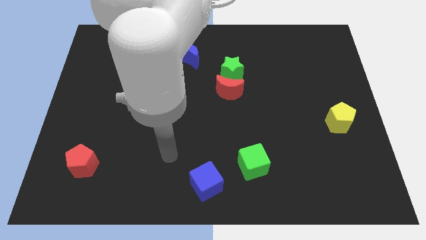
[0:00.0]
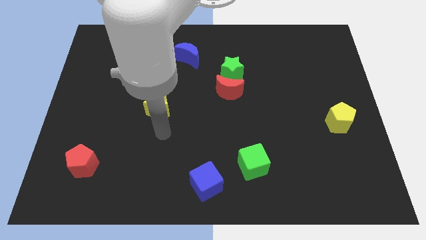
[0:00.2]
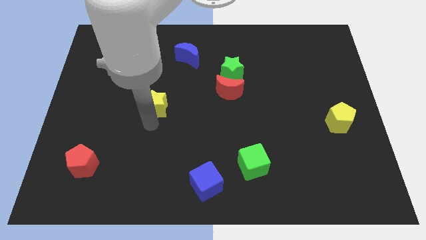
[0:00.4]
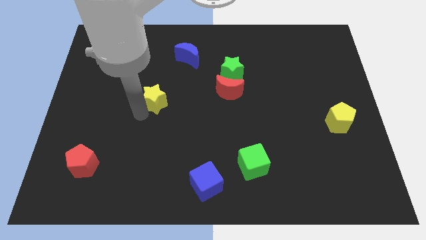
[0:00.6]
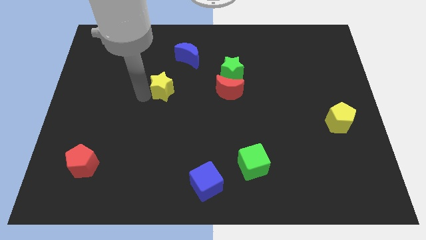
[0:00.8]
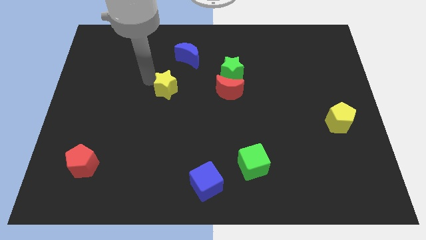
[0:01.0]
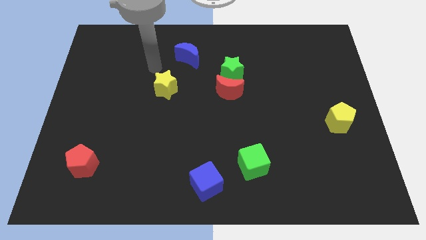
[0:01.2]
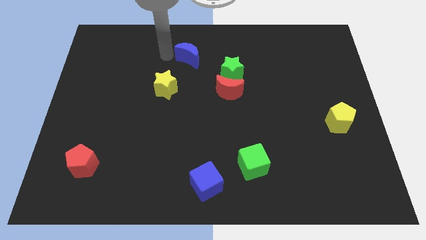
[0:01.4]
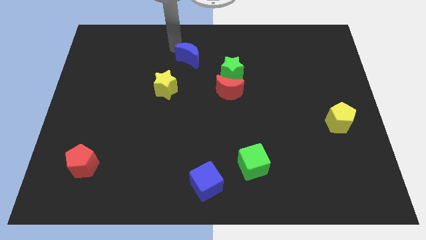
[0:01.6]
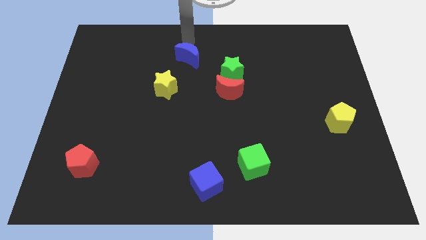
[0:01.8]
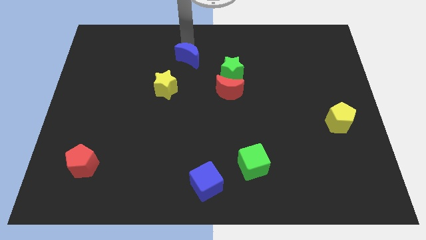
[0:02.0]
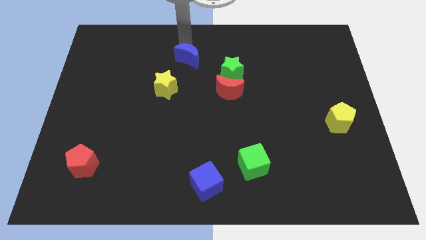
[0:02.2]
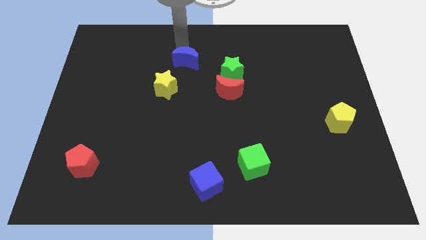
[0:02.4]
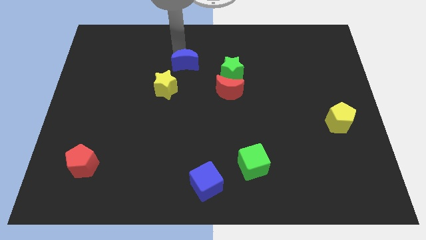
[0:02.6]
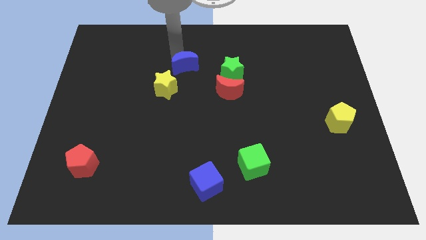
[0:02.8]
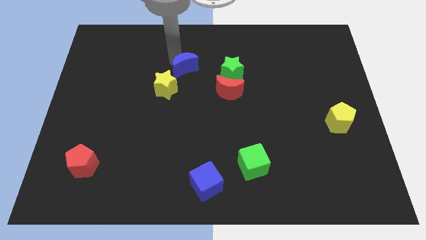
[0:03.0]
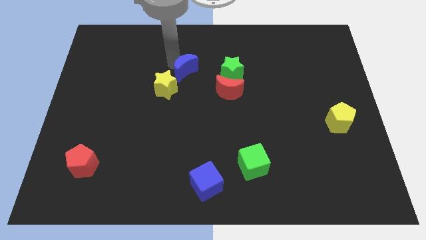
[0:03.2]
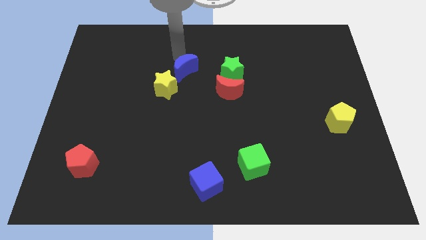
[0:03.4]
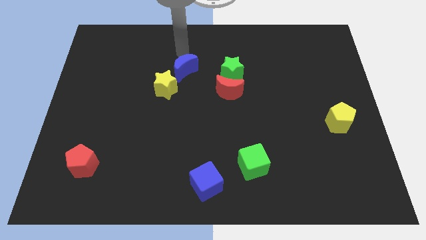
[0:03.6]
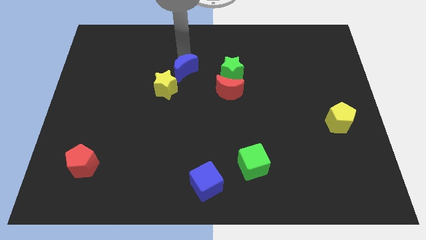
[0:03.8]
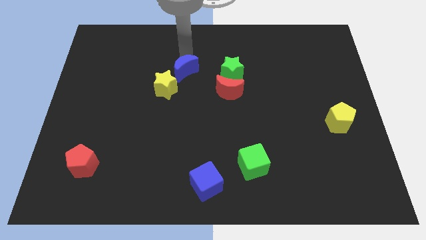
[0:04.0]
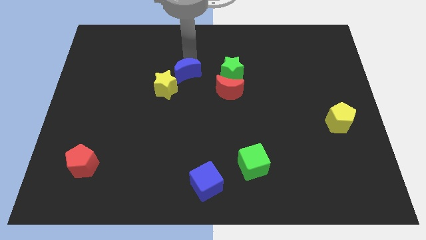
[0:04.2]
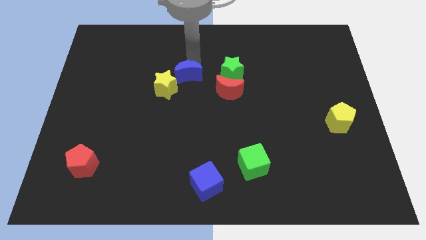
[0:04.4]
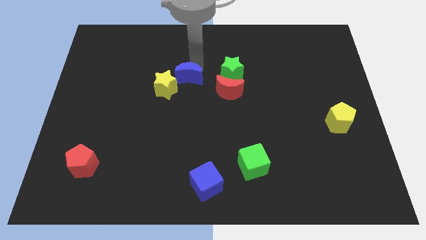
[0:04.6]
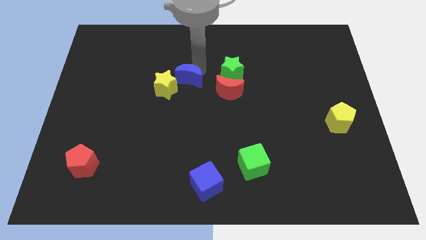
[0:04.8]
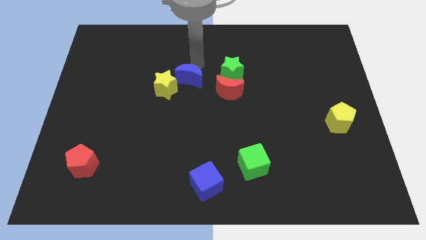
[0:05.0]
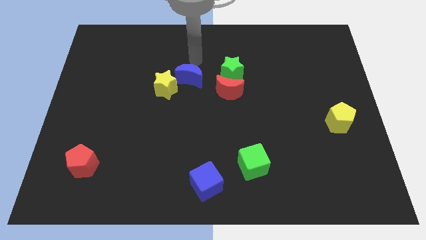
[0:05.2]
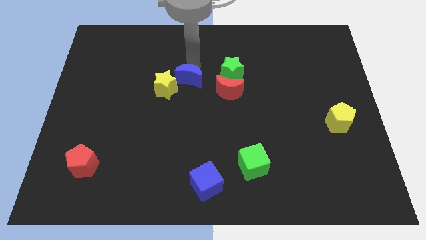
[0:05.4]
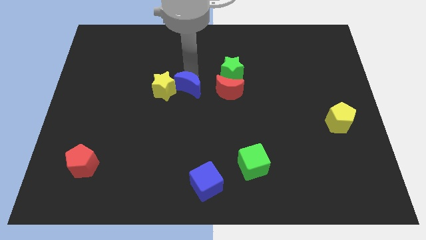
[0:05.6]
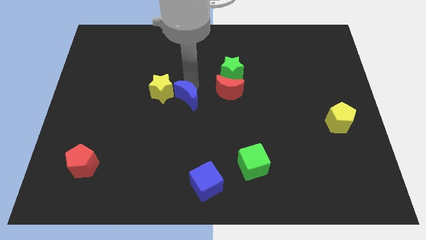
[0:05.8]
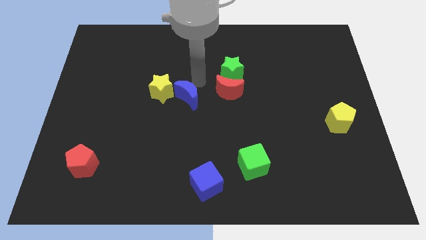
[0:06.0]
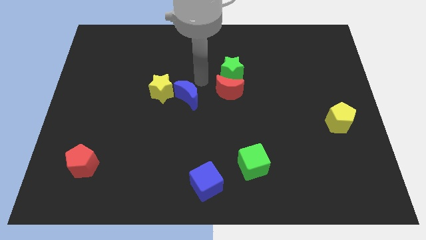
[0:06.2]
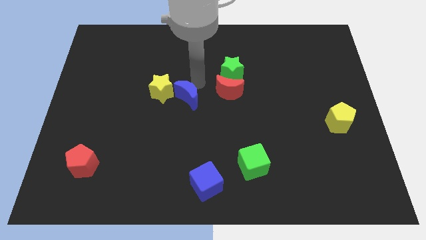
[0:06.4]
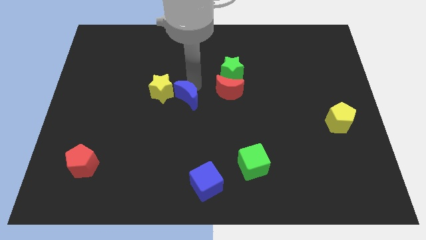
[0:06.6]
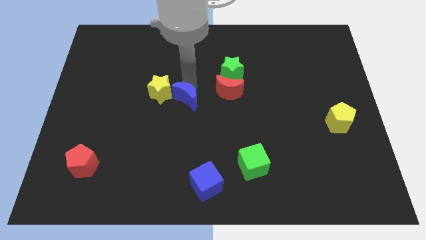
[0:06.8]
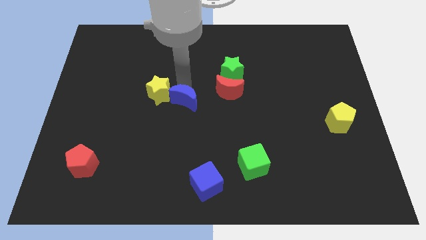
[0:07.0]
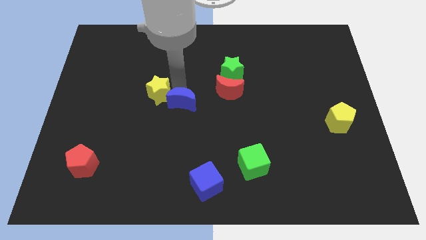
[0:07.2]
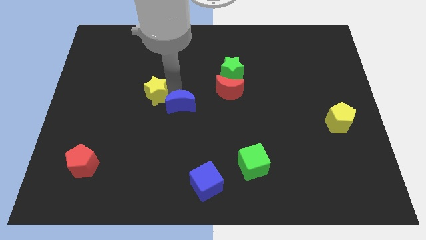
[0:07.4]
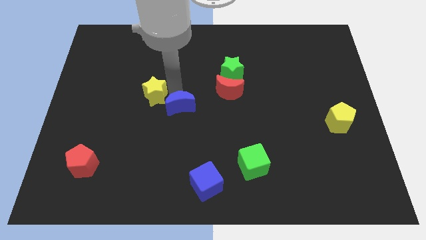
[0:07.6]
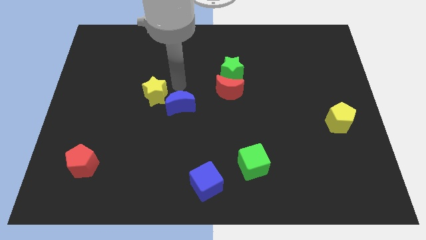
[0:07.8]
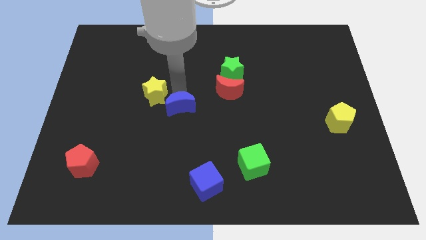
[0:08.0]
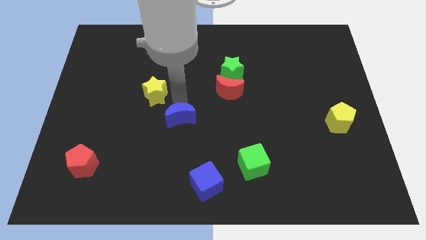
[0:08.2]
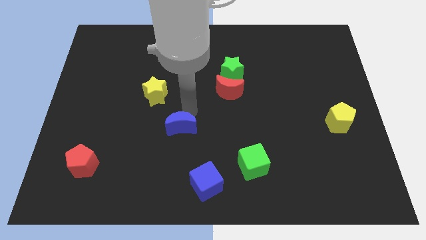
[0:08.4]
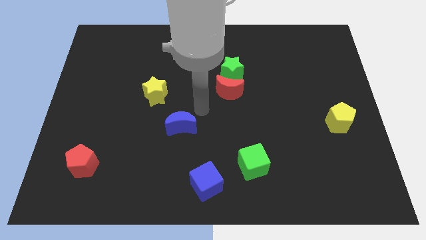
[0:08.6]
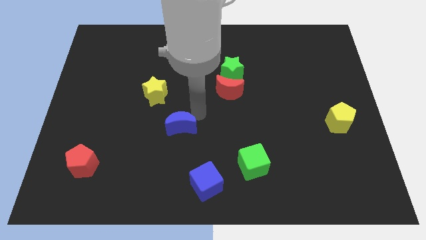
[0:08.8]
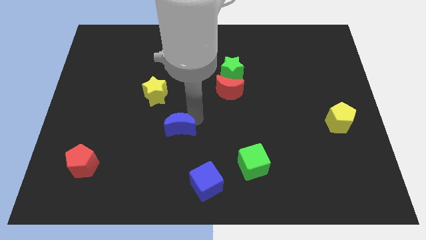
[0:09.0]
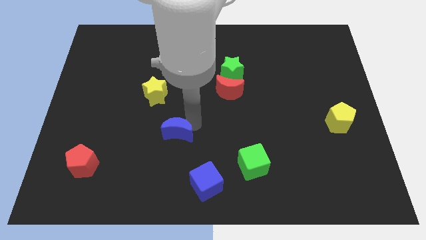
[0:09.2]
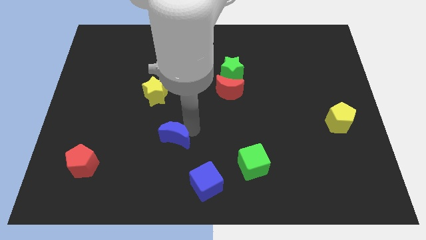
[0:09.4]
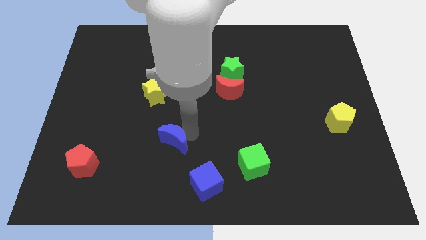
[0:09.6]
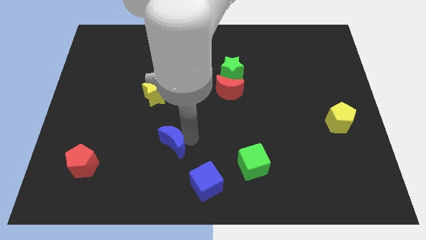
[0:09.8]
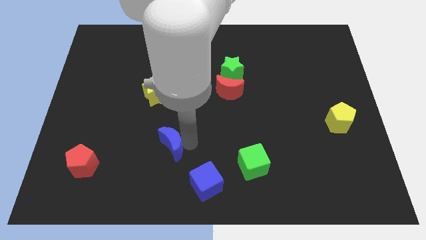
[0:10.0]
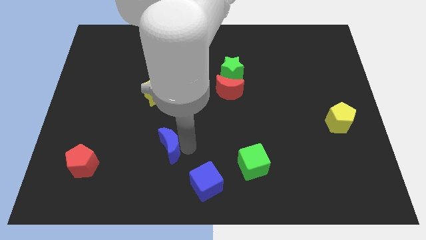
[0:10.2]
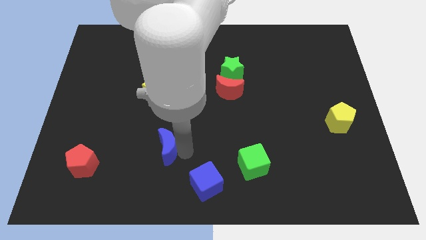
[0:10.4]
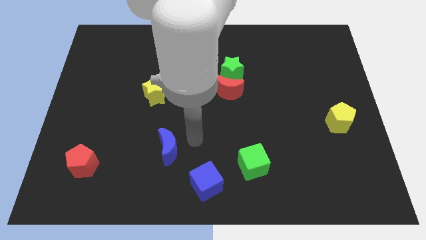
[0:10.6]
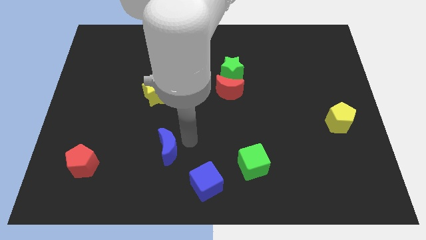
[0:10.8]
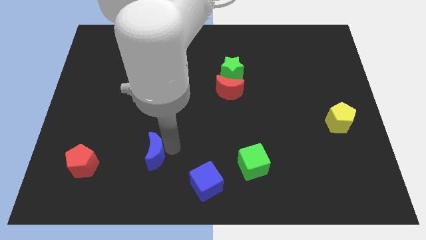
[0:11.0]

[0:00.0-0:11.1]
put the blue moon right of the red pentagon

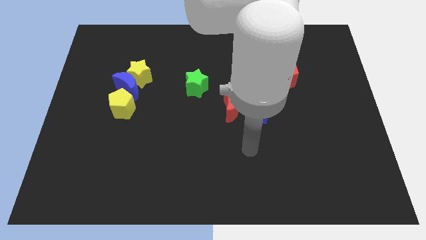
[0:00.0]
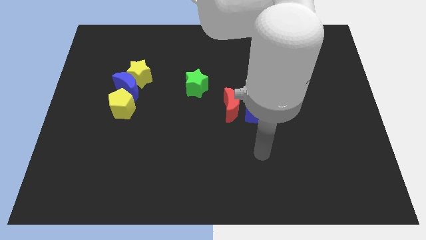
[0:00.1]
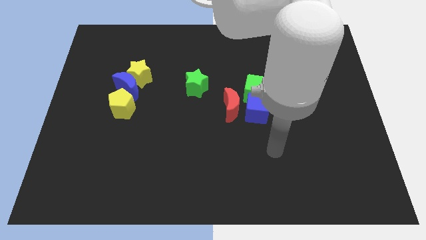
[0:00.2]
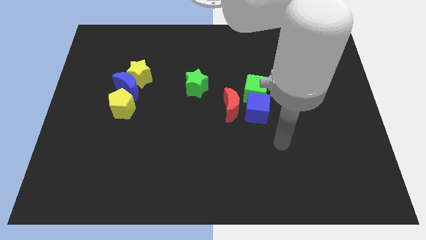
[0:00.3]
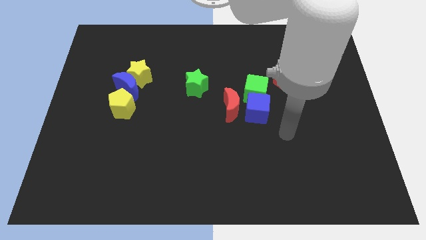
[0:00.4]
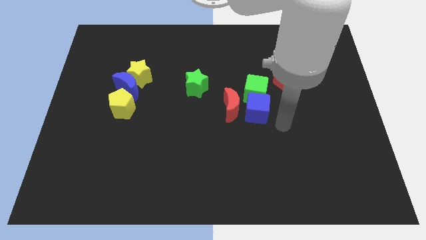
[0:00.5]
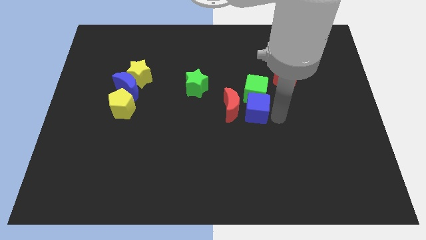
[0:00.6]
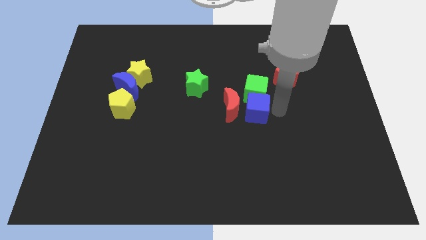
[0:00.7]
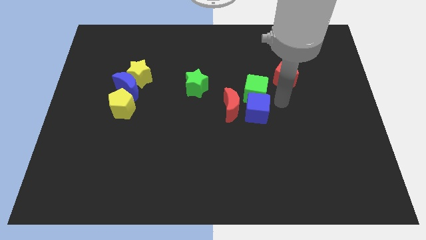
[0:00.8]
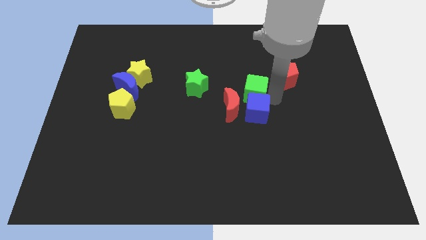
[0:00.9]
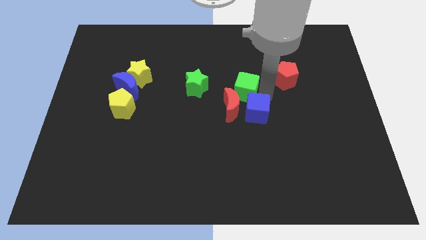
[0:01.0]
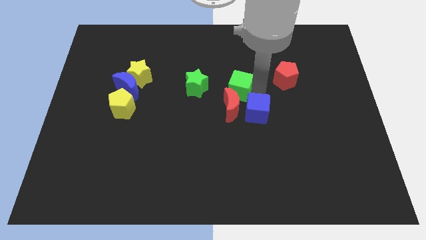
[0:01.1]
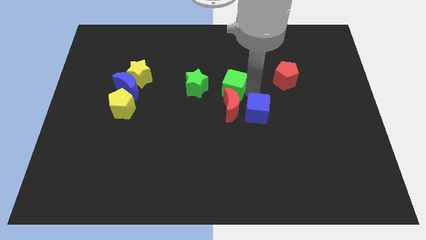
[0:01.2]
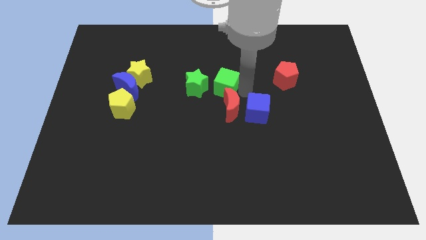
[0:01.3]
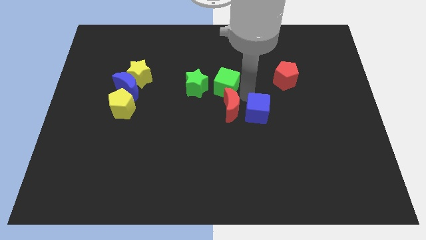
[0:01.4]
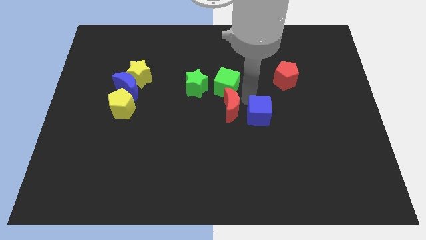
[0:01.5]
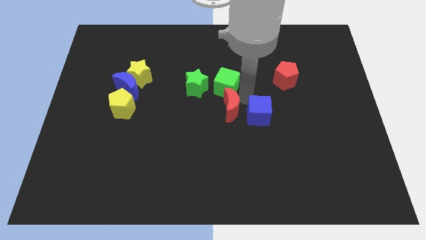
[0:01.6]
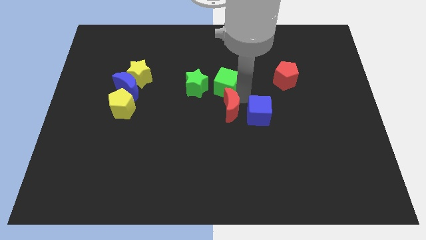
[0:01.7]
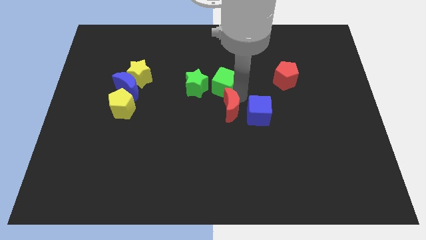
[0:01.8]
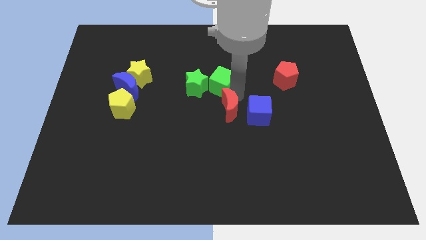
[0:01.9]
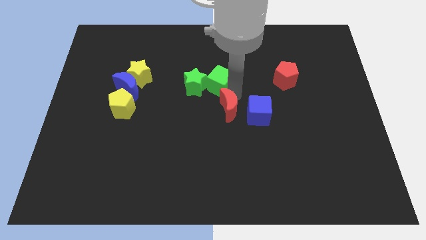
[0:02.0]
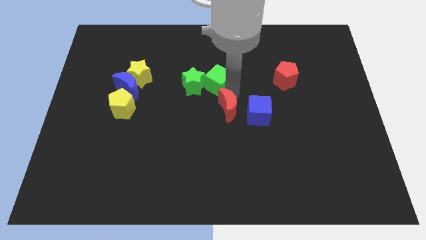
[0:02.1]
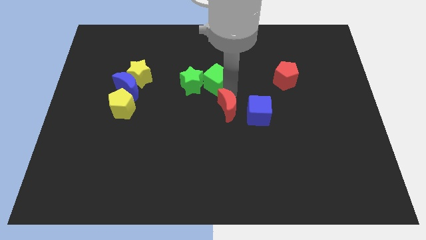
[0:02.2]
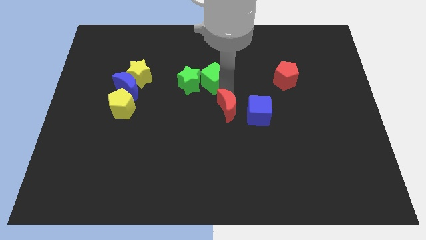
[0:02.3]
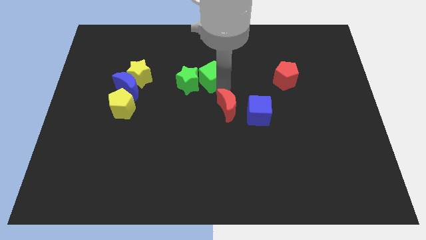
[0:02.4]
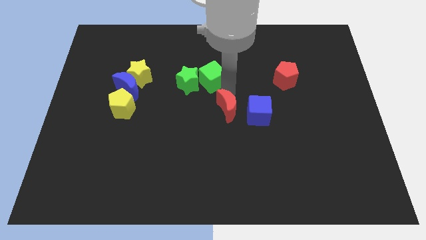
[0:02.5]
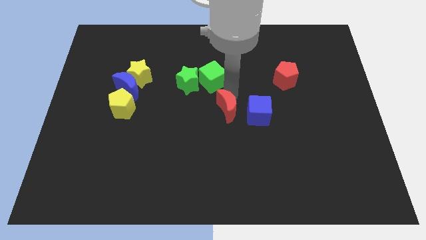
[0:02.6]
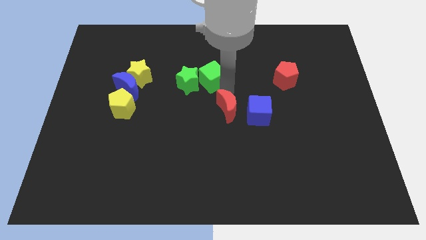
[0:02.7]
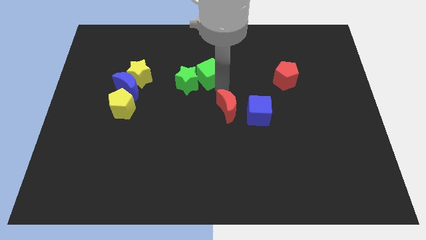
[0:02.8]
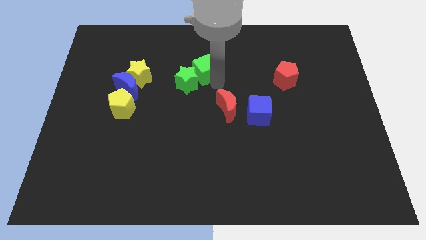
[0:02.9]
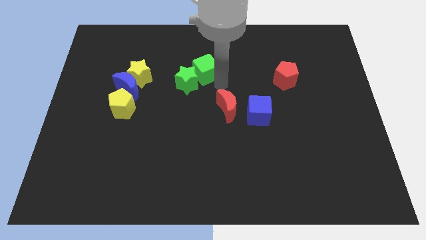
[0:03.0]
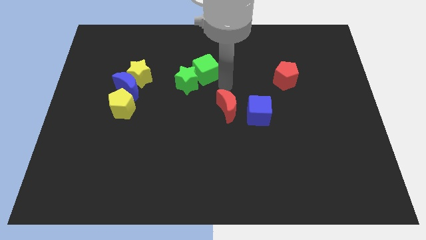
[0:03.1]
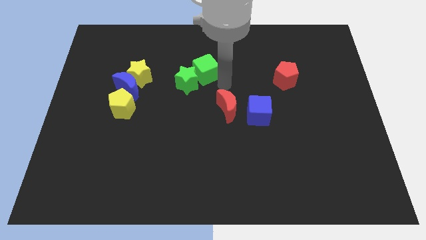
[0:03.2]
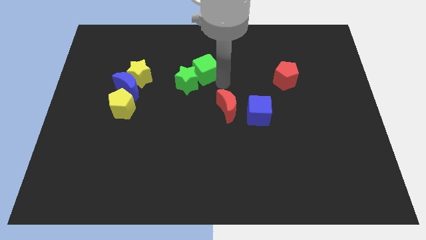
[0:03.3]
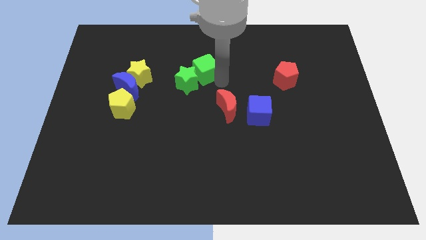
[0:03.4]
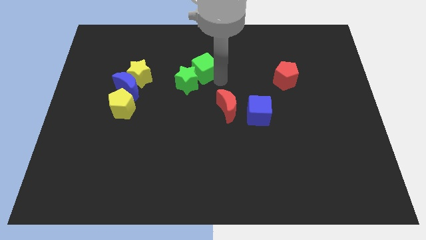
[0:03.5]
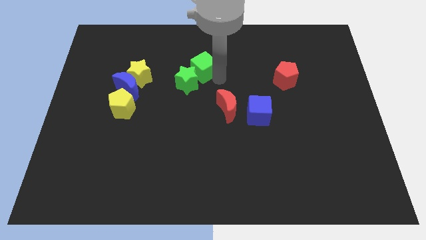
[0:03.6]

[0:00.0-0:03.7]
put the green cube just right of the yellow star
